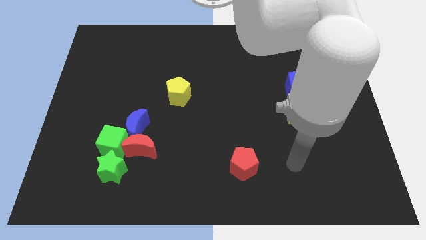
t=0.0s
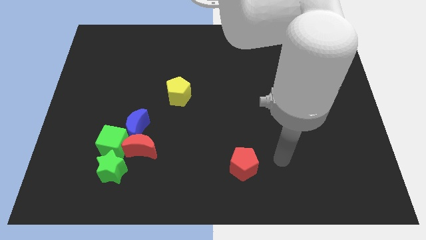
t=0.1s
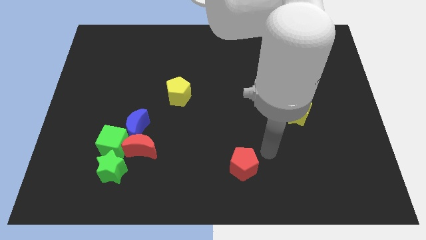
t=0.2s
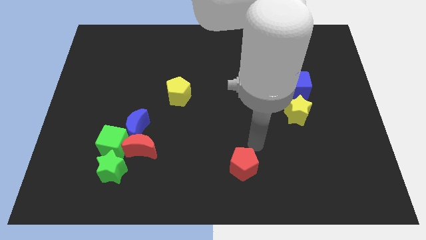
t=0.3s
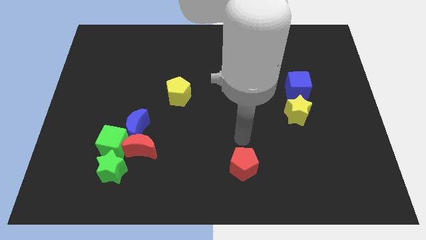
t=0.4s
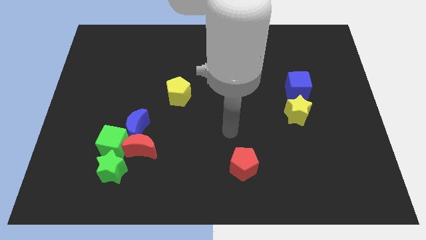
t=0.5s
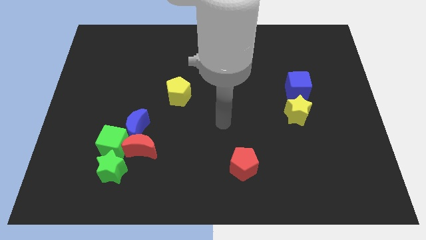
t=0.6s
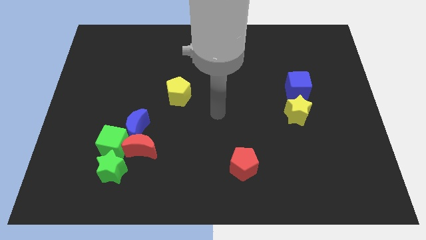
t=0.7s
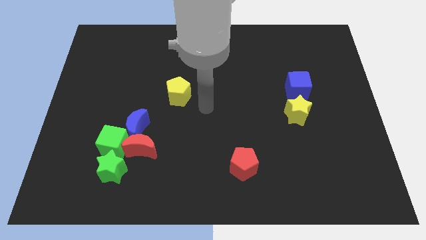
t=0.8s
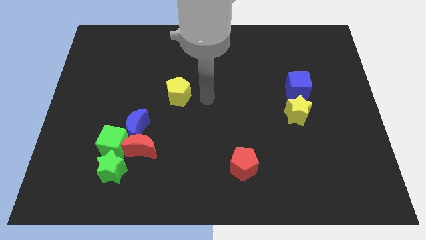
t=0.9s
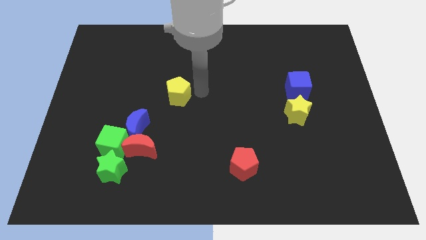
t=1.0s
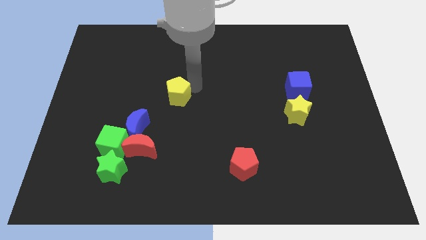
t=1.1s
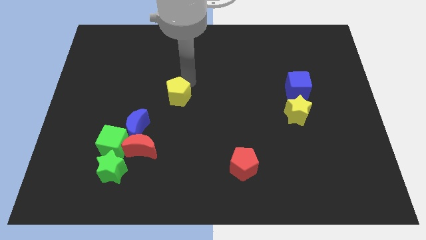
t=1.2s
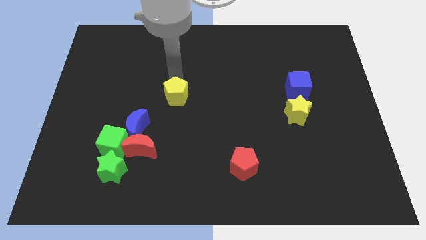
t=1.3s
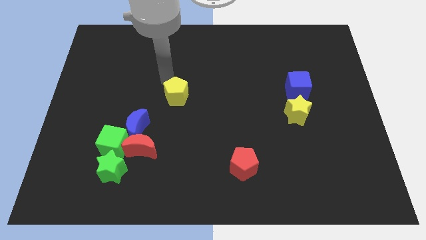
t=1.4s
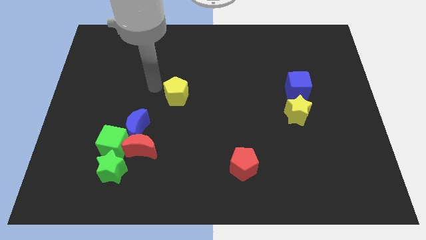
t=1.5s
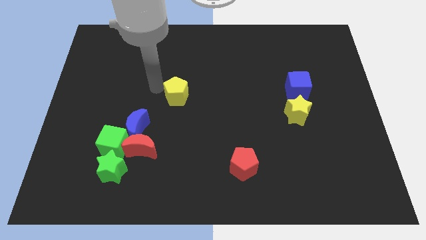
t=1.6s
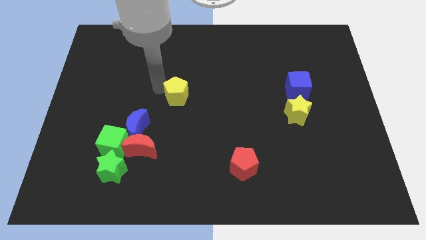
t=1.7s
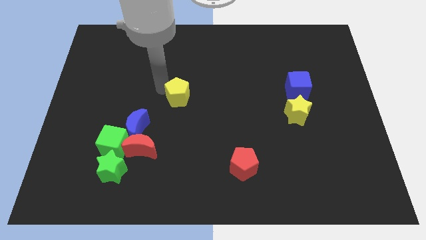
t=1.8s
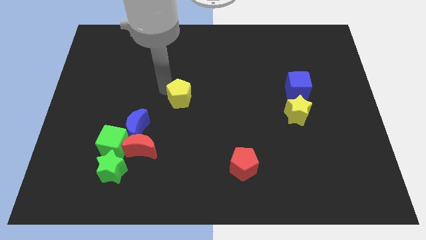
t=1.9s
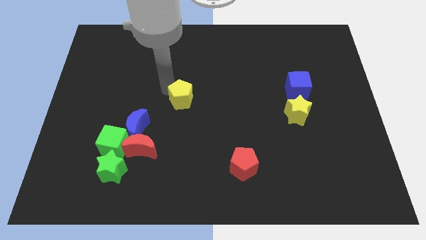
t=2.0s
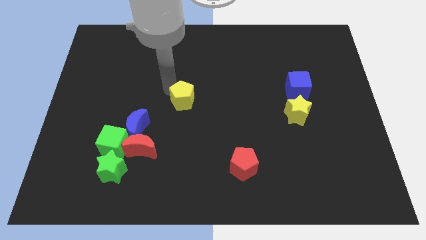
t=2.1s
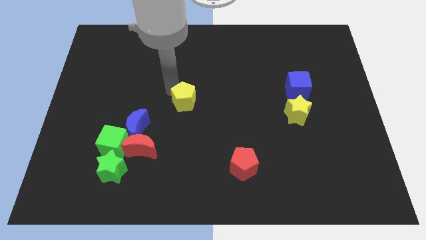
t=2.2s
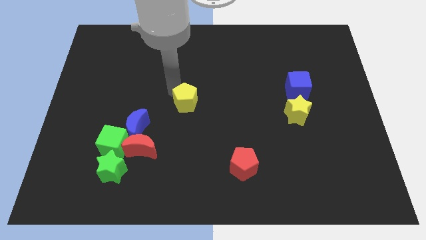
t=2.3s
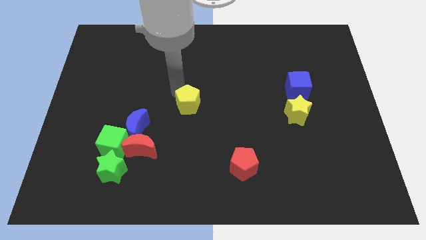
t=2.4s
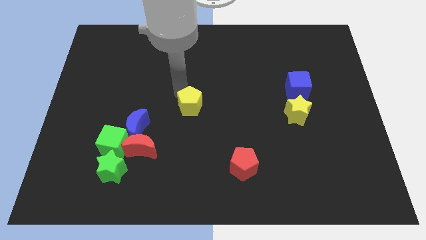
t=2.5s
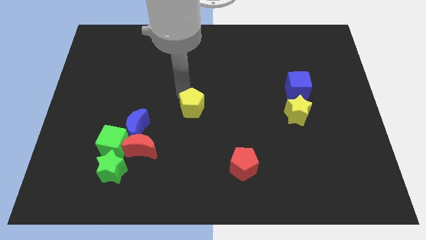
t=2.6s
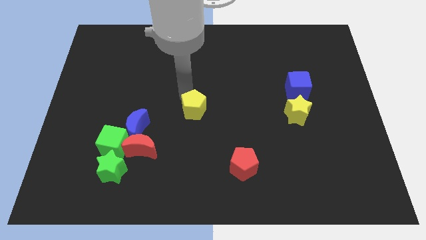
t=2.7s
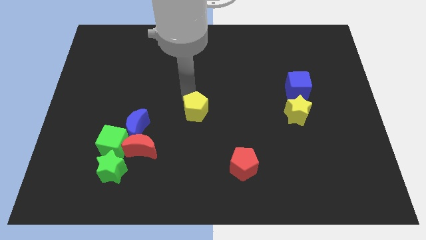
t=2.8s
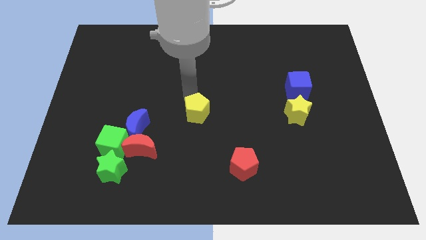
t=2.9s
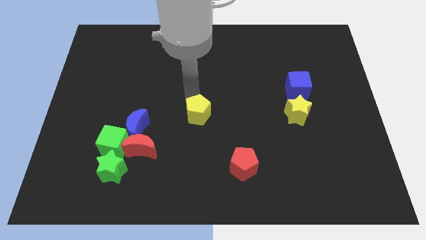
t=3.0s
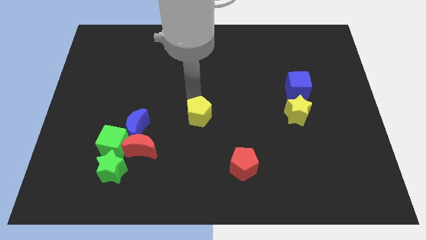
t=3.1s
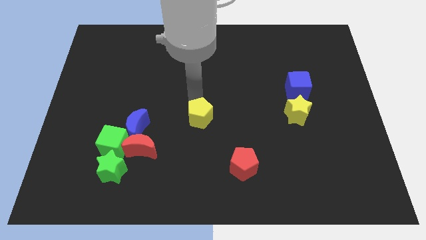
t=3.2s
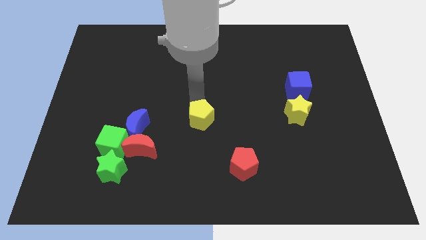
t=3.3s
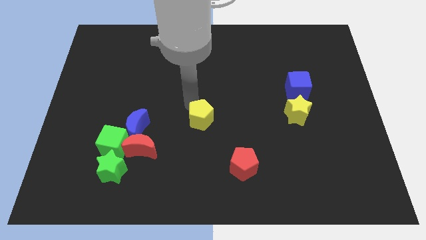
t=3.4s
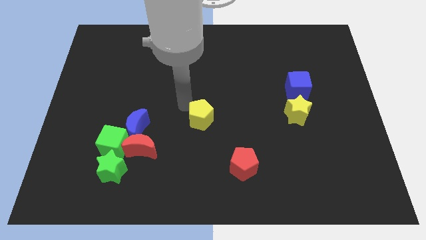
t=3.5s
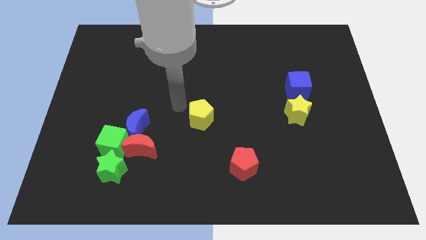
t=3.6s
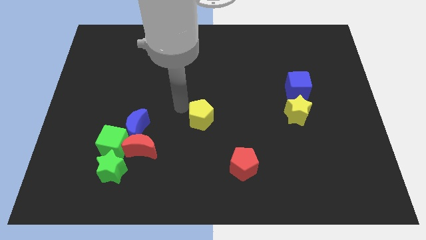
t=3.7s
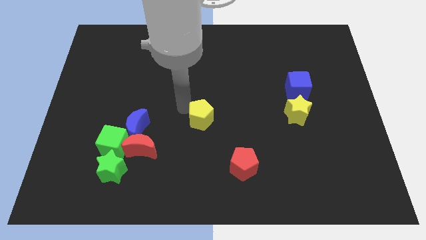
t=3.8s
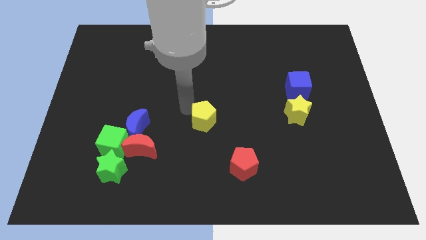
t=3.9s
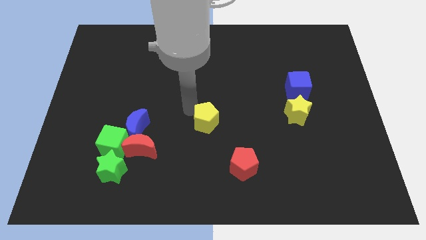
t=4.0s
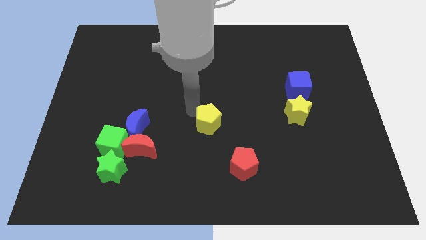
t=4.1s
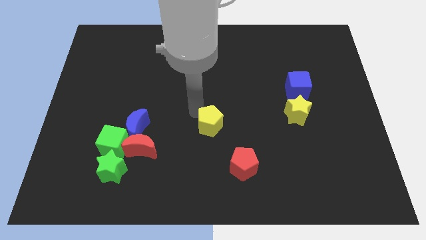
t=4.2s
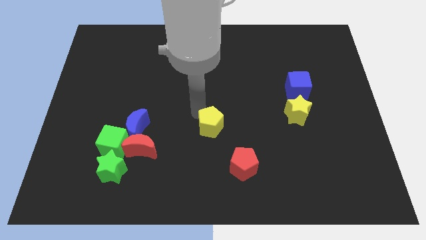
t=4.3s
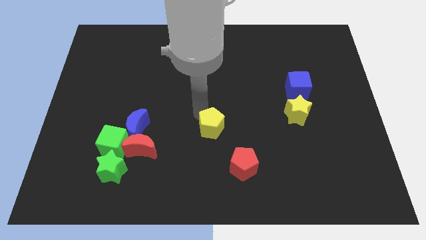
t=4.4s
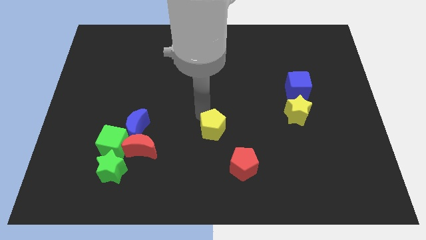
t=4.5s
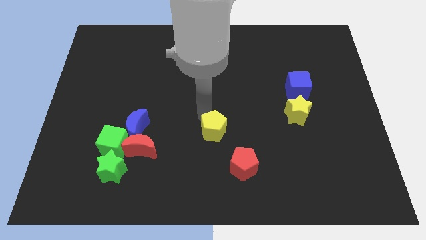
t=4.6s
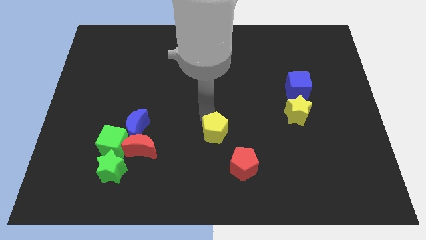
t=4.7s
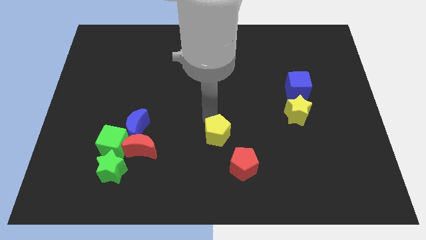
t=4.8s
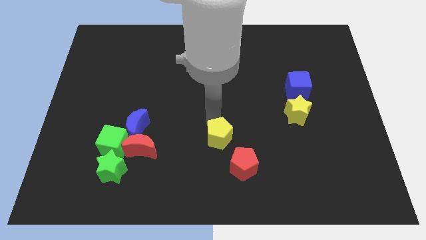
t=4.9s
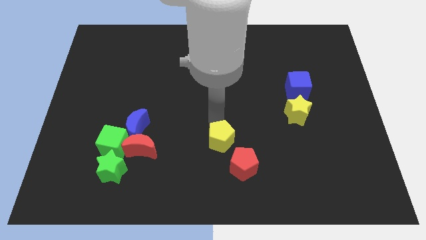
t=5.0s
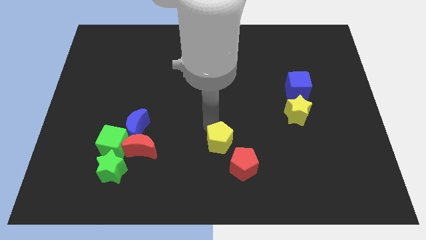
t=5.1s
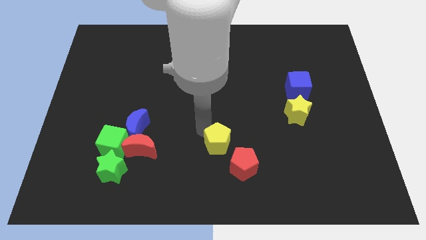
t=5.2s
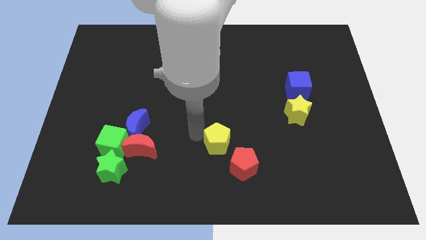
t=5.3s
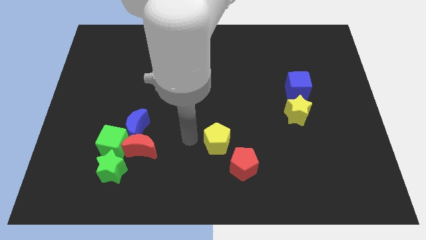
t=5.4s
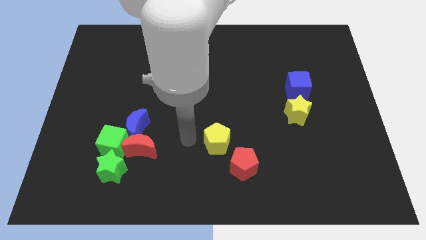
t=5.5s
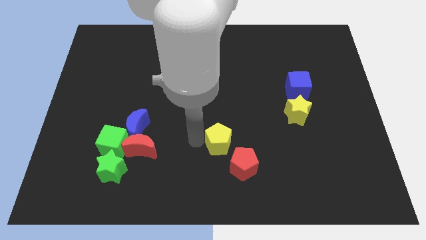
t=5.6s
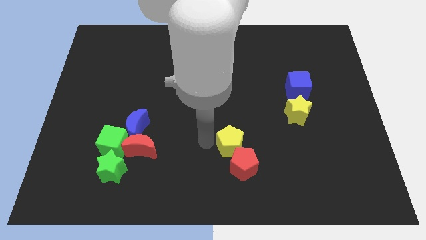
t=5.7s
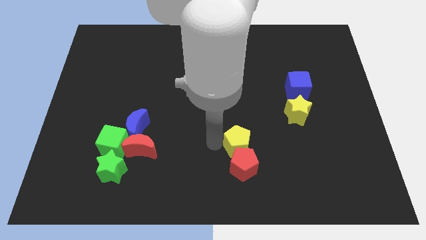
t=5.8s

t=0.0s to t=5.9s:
move the yellow pentagon downwards and right

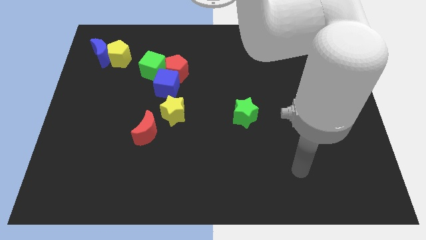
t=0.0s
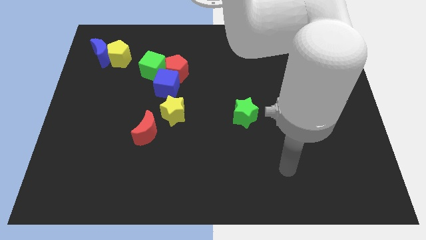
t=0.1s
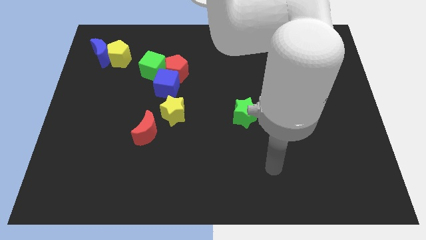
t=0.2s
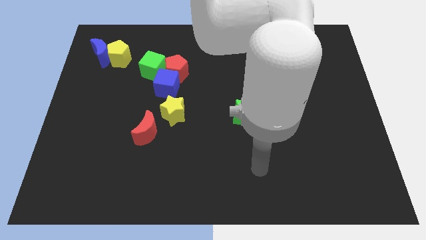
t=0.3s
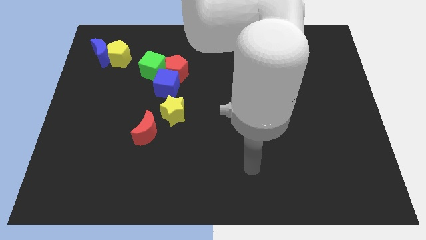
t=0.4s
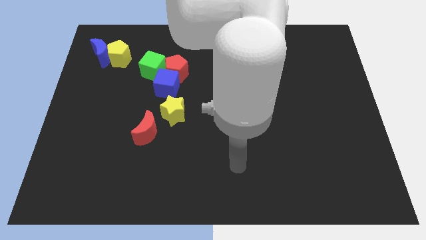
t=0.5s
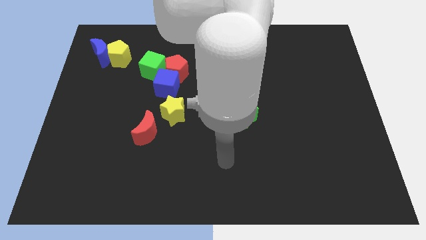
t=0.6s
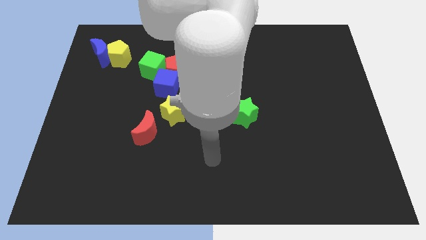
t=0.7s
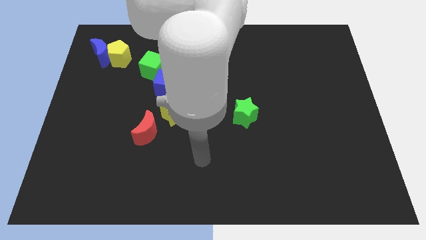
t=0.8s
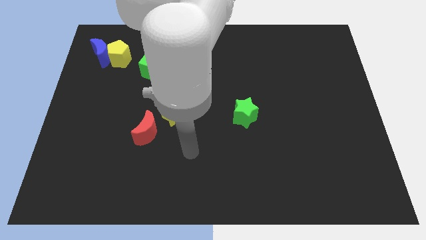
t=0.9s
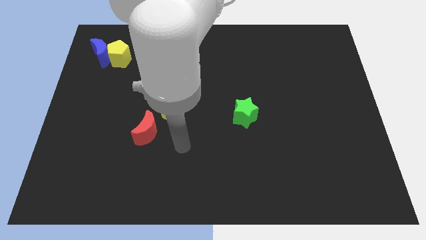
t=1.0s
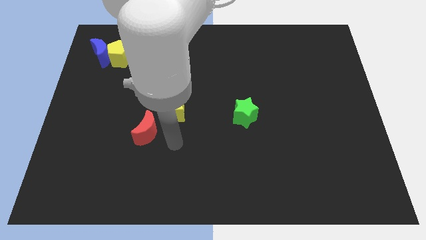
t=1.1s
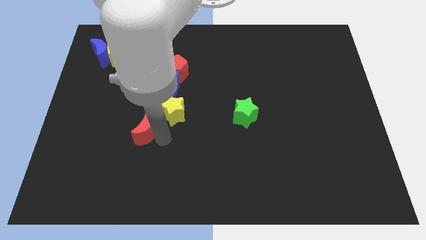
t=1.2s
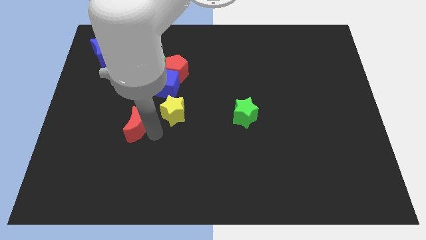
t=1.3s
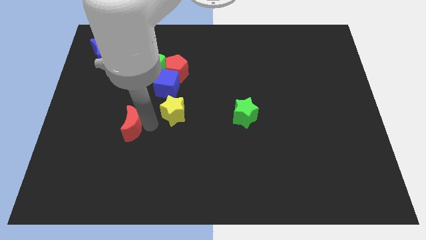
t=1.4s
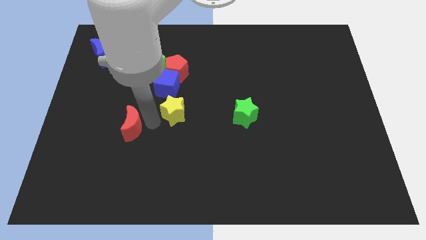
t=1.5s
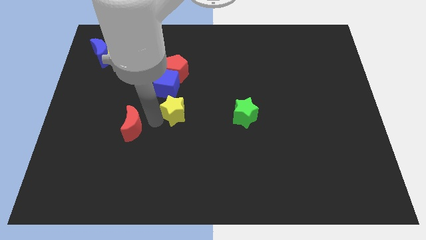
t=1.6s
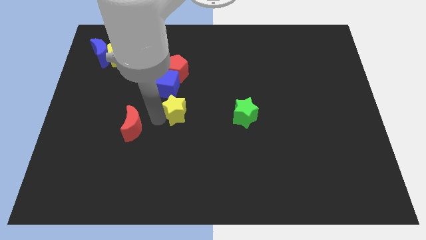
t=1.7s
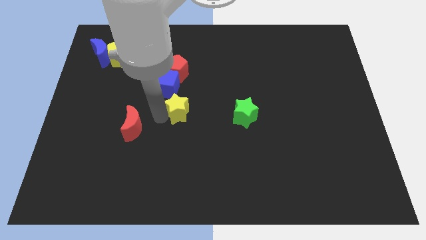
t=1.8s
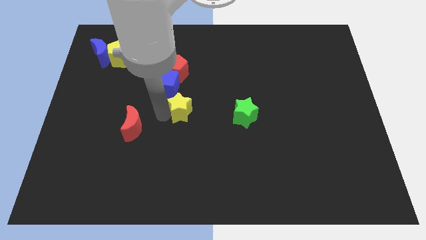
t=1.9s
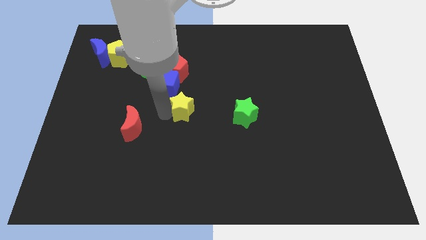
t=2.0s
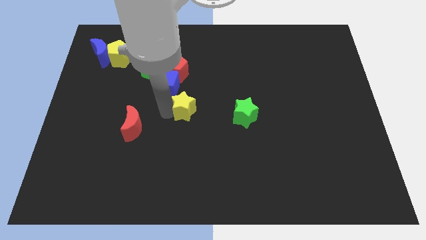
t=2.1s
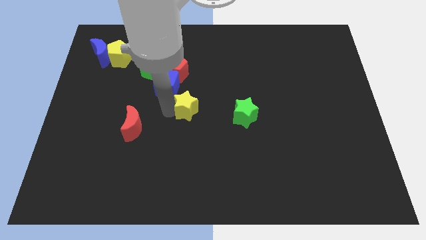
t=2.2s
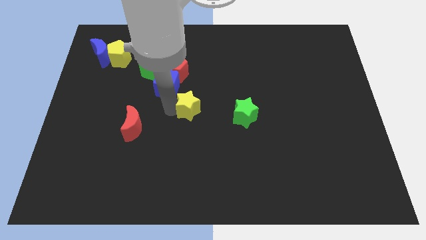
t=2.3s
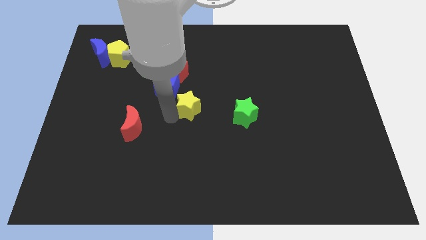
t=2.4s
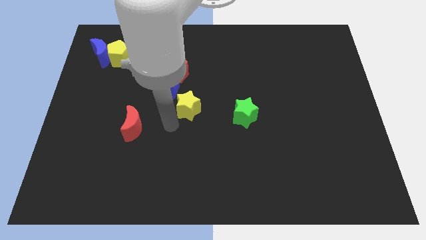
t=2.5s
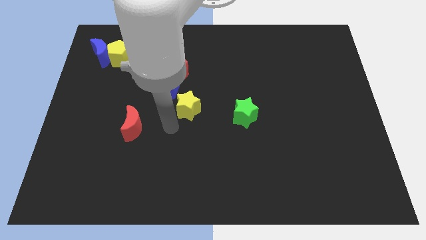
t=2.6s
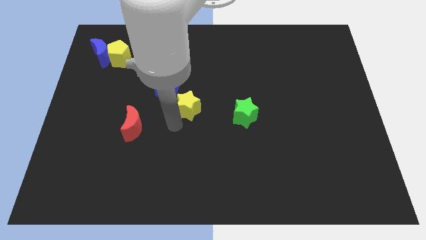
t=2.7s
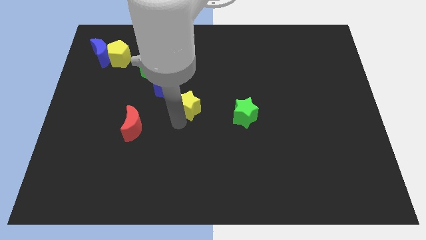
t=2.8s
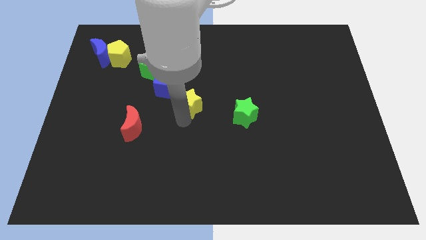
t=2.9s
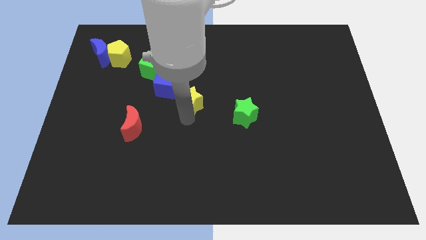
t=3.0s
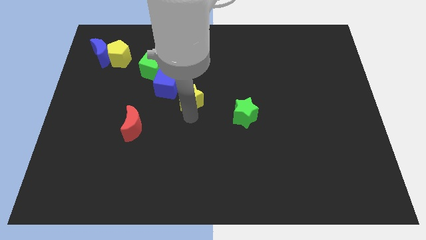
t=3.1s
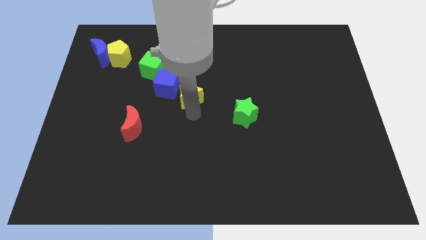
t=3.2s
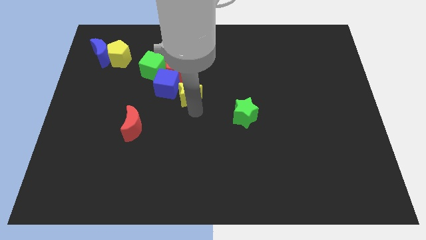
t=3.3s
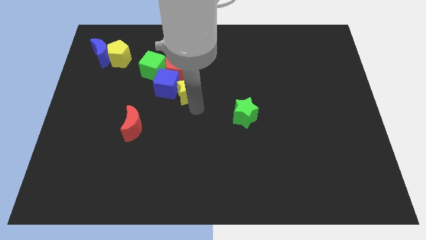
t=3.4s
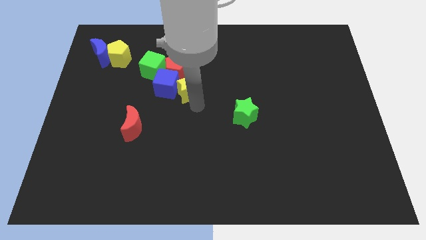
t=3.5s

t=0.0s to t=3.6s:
move the yellow star slightly diagonally up and right
